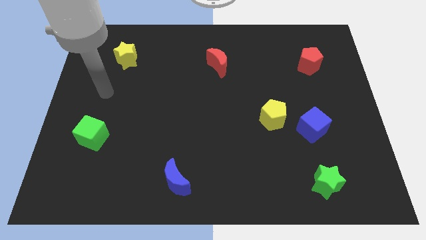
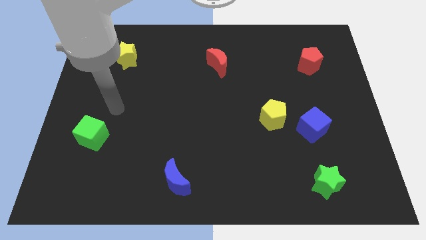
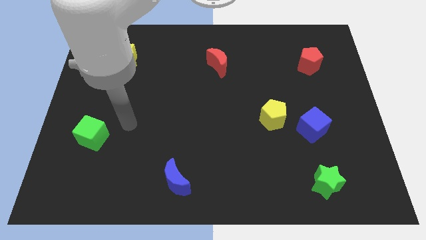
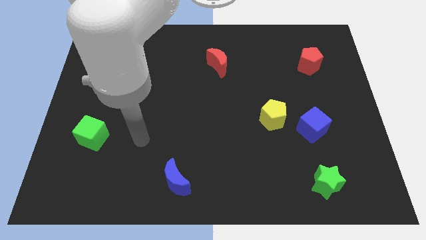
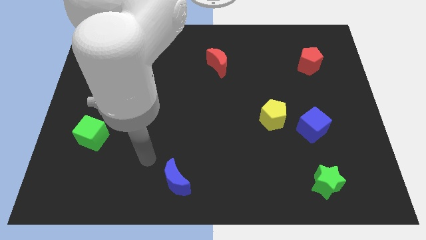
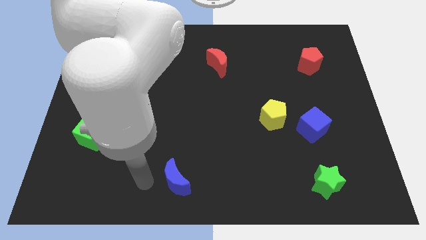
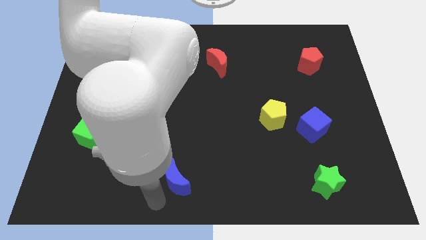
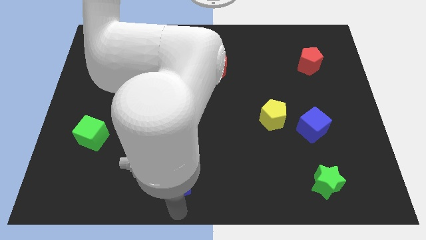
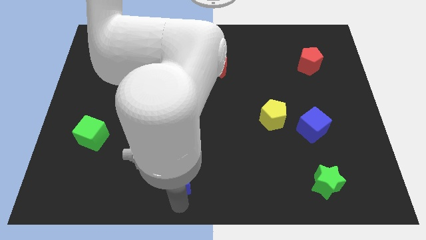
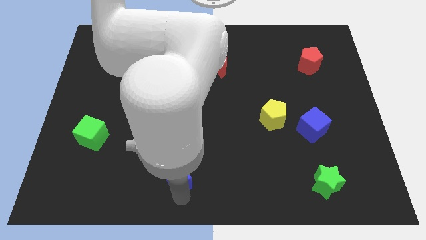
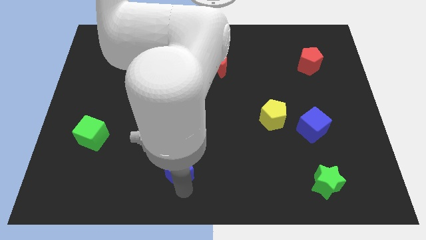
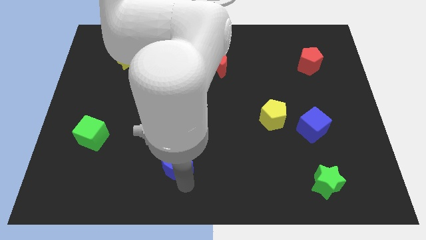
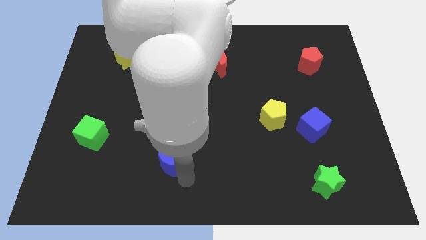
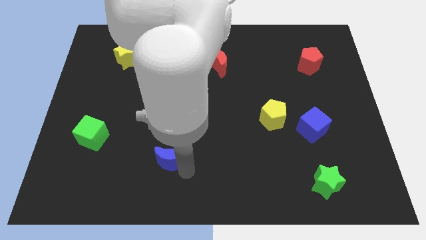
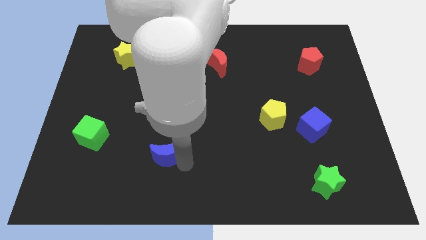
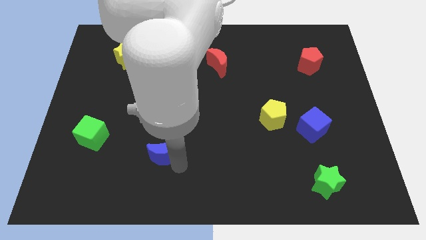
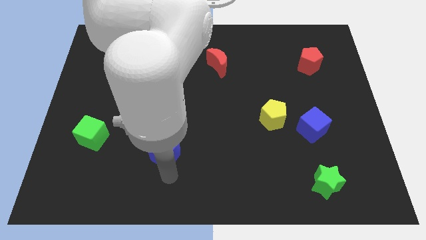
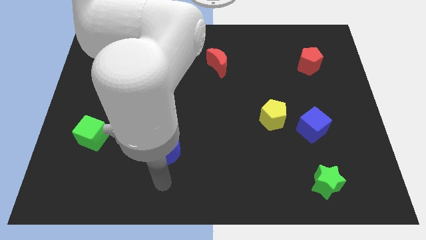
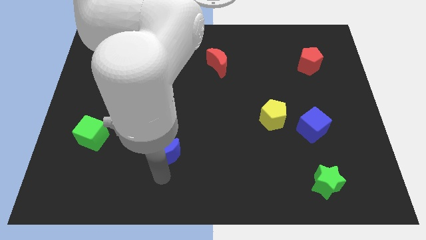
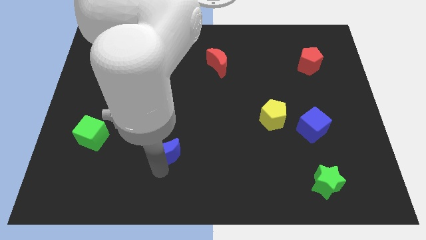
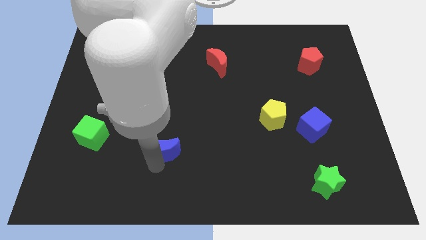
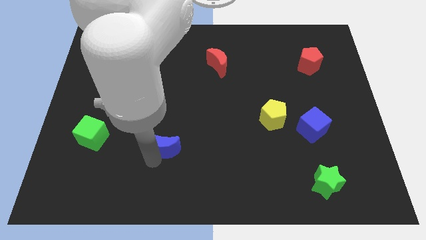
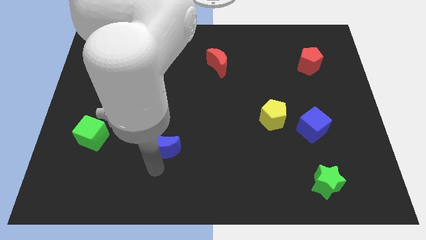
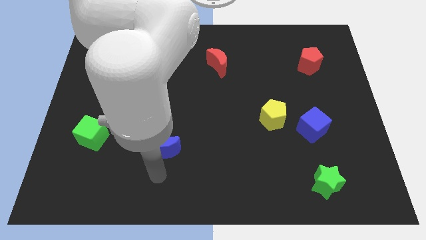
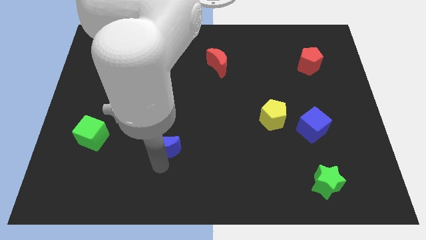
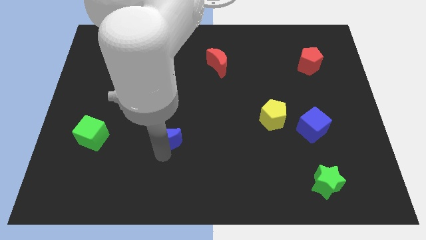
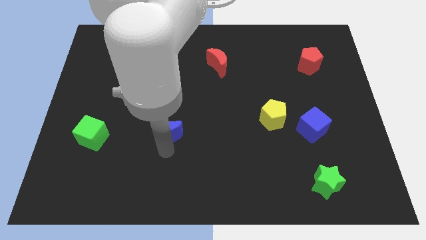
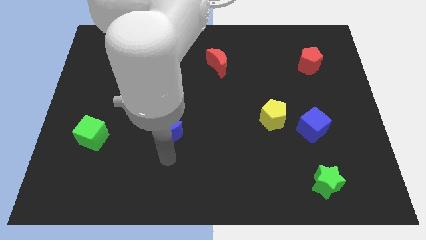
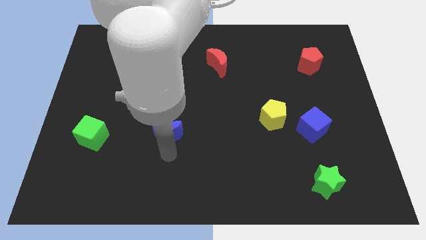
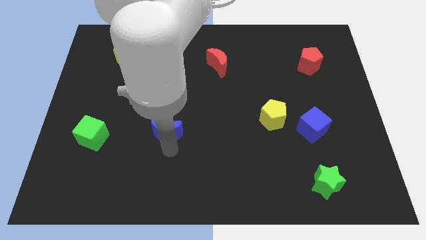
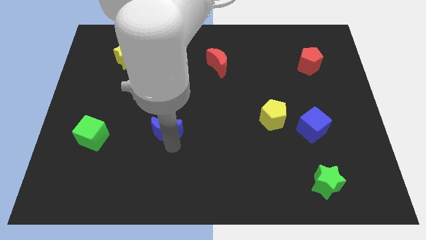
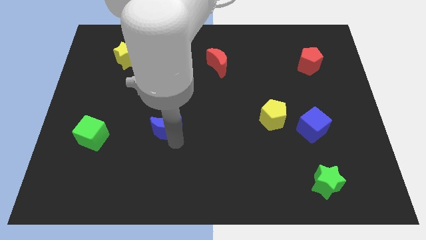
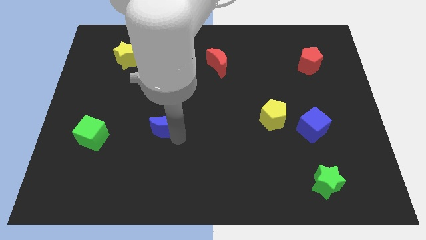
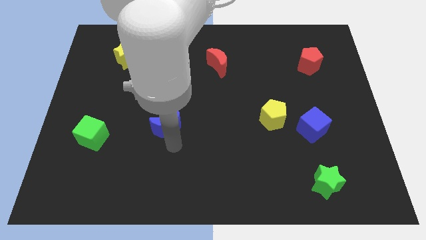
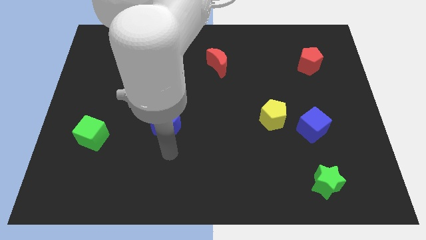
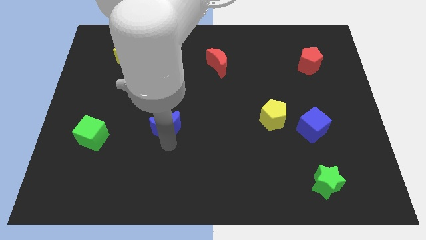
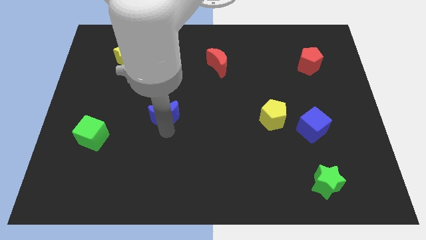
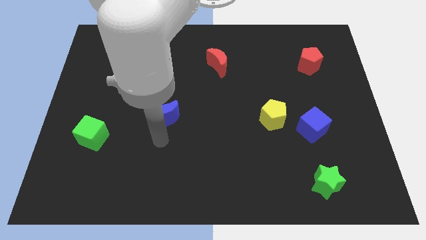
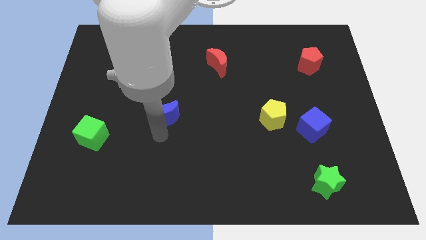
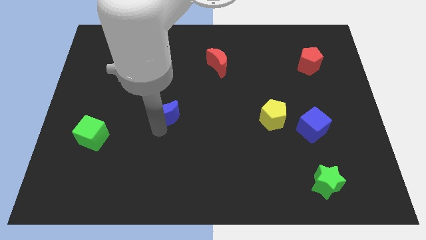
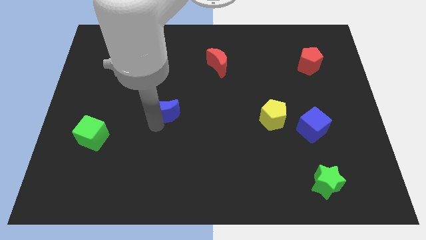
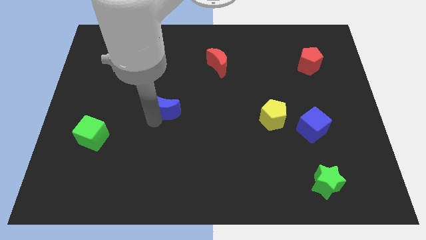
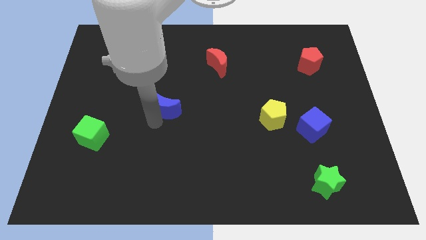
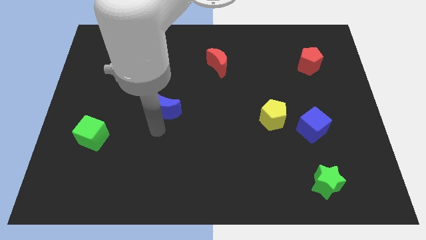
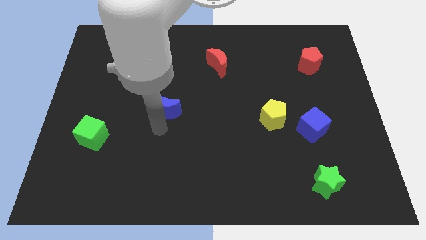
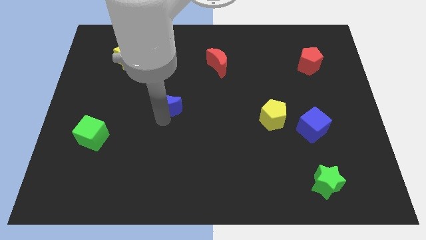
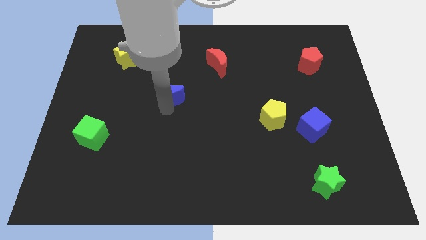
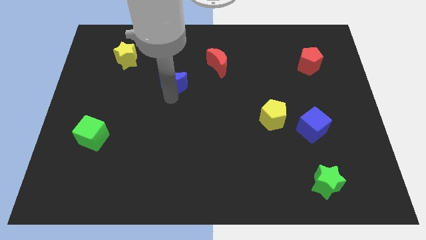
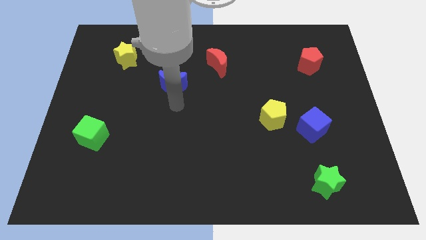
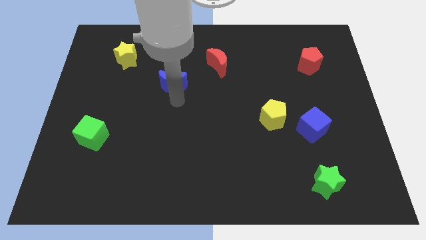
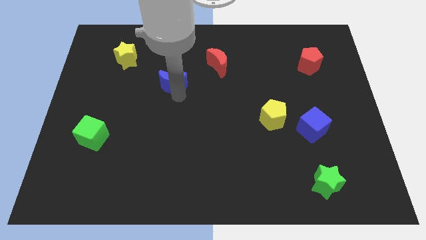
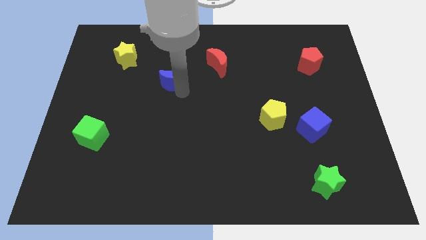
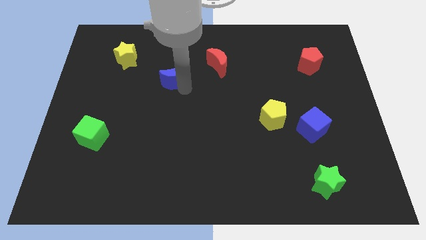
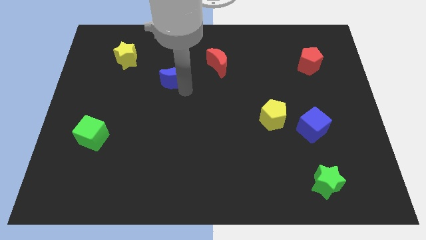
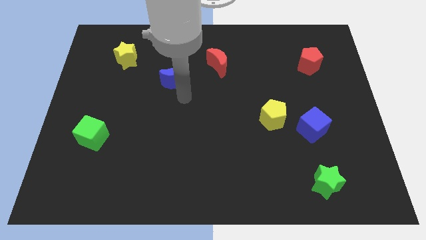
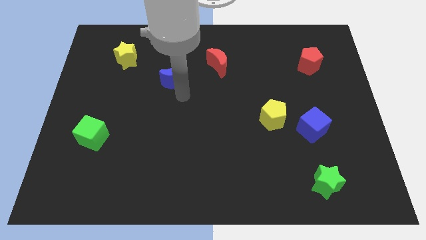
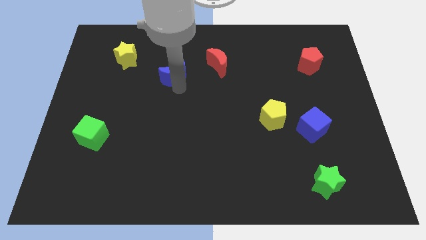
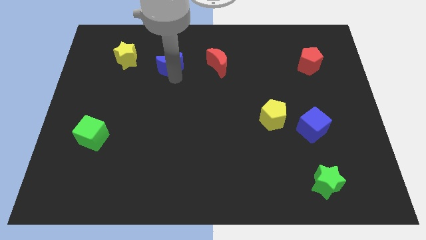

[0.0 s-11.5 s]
put the blue moon to the right side of the yellow star

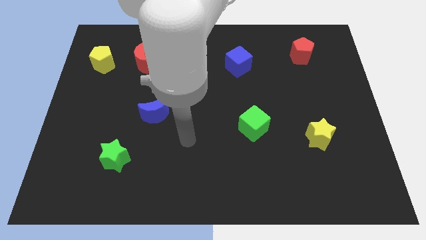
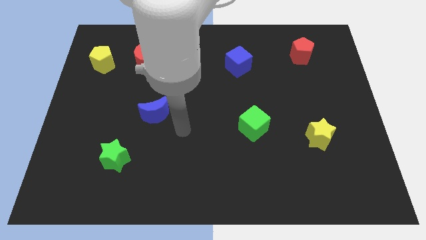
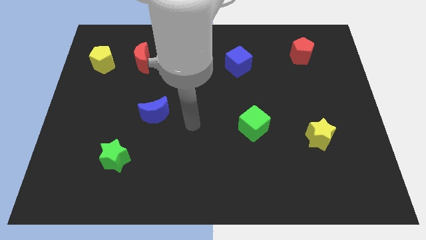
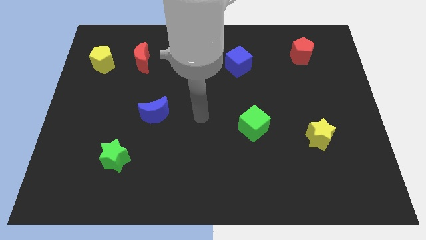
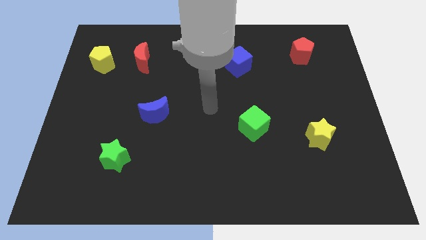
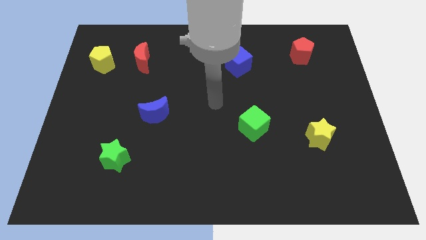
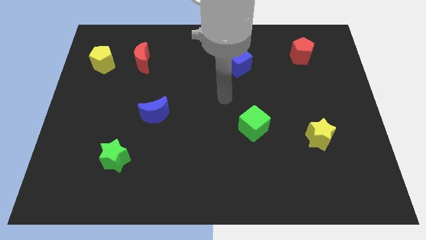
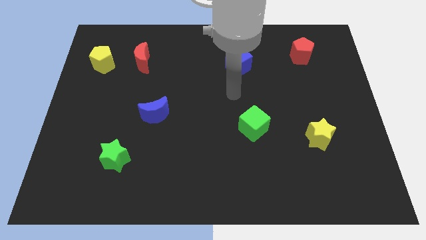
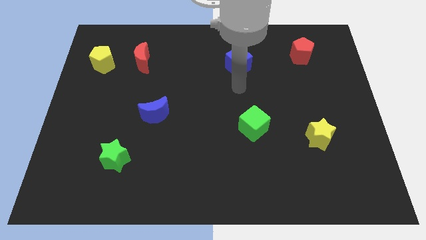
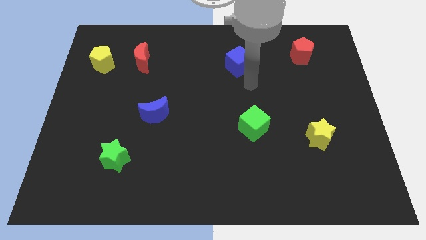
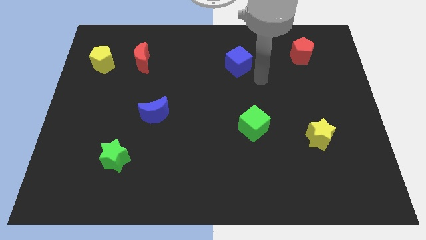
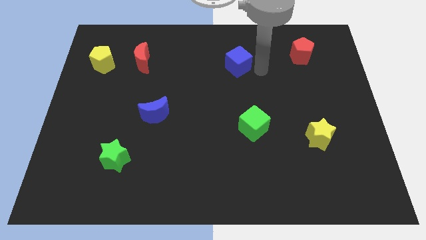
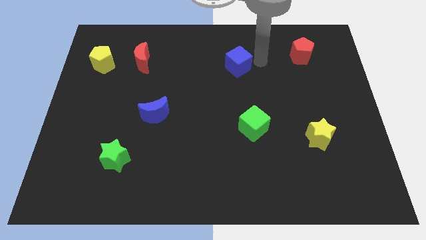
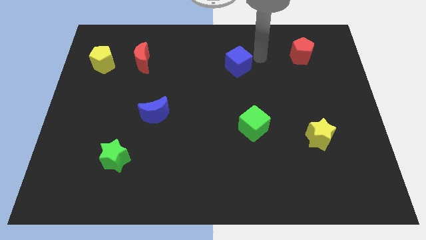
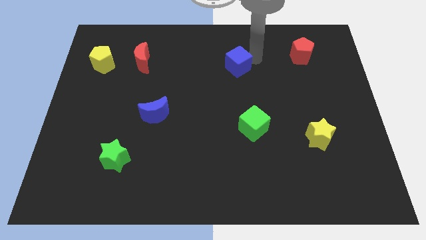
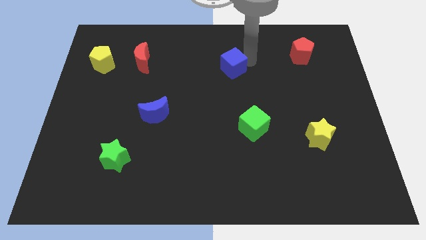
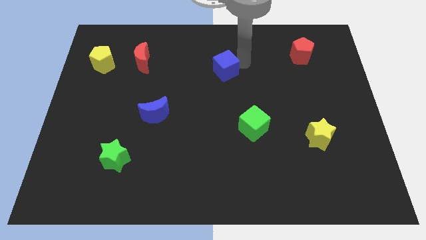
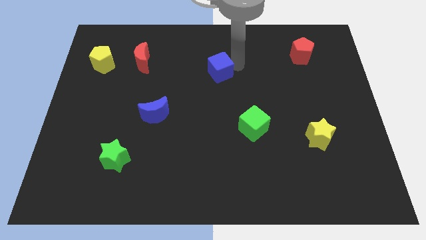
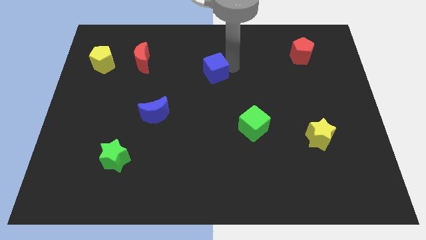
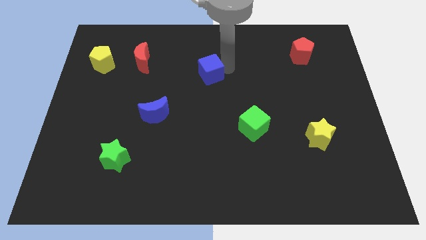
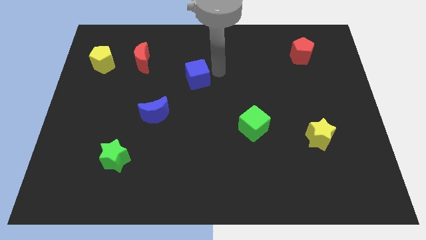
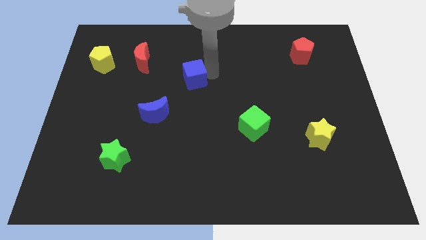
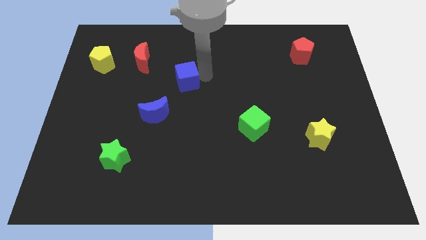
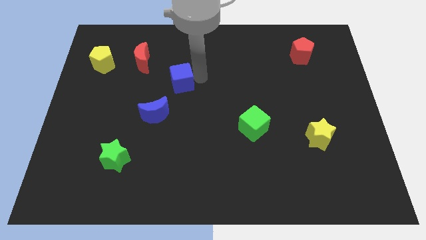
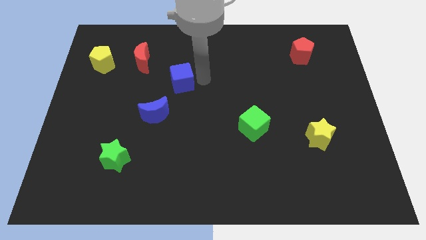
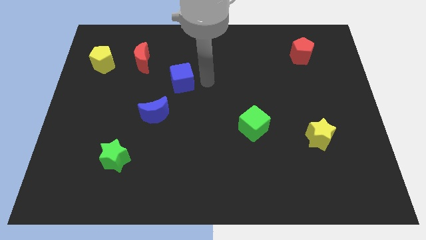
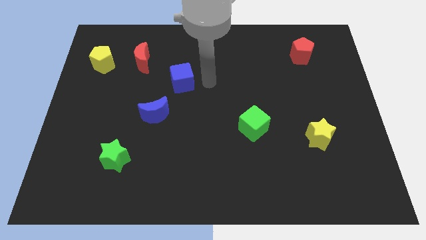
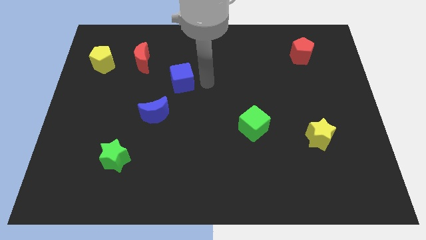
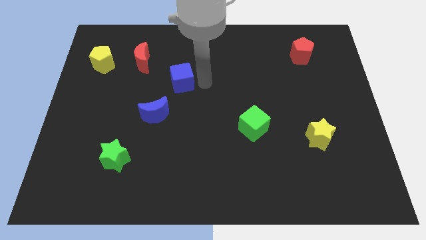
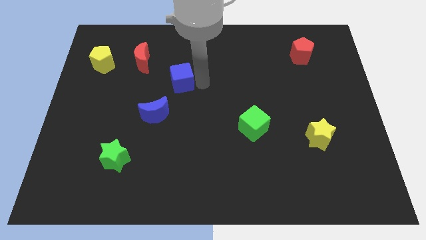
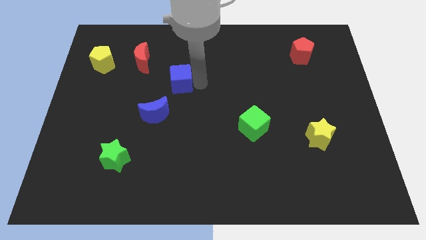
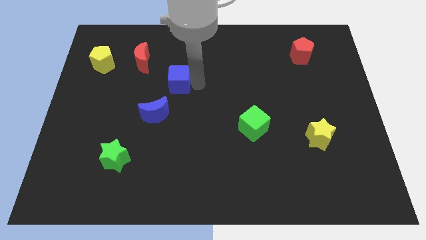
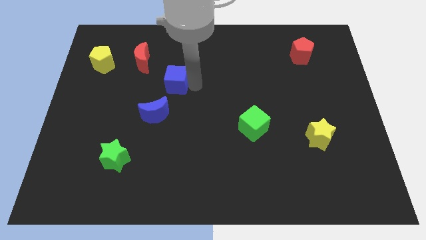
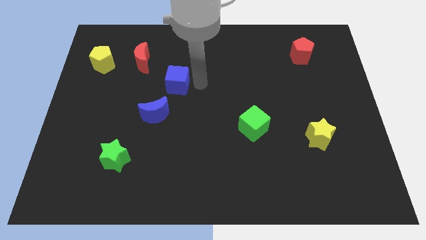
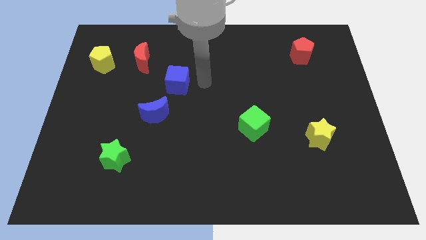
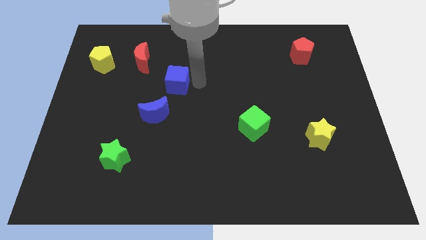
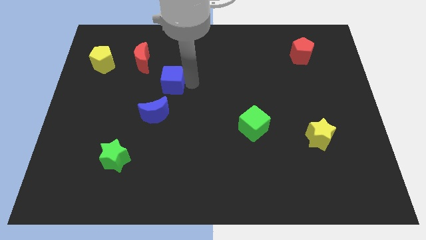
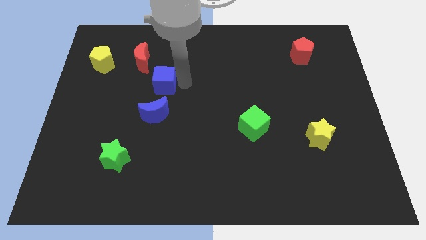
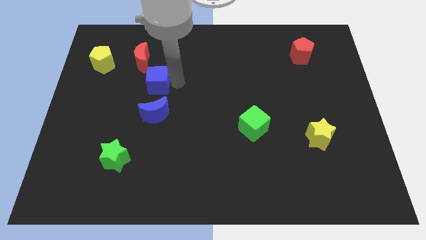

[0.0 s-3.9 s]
slide the blue cube below the red moon
